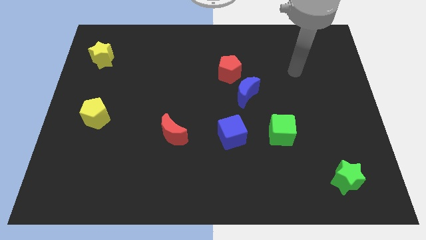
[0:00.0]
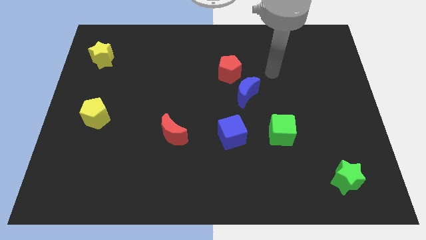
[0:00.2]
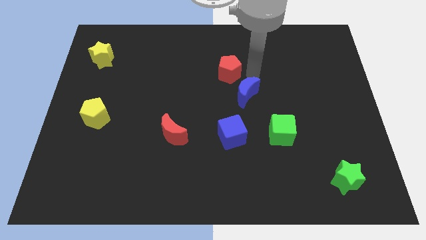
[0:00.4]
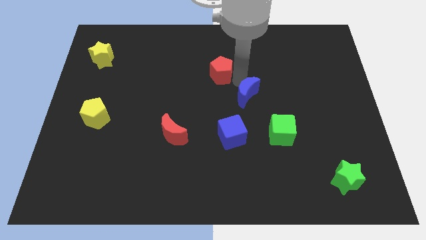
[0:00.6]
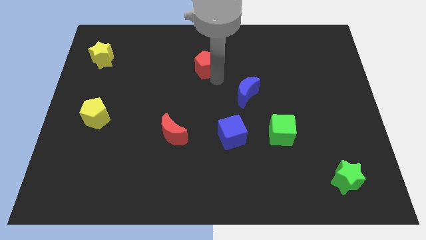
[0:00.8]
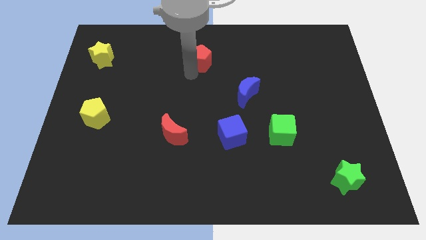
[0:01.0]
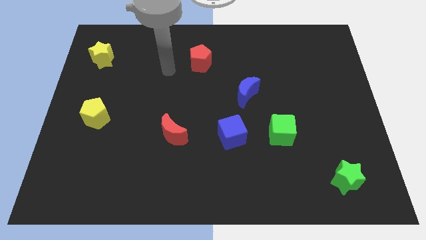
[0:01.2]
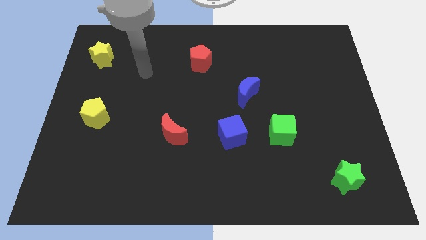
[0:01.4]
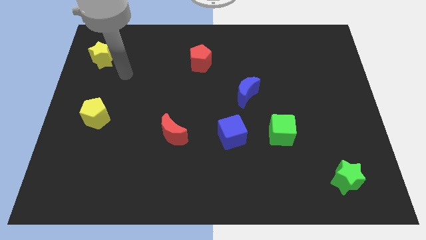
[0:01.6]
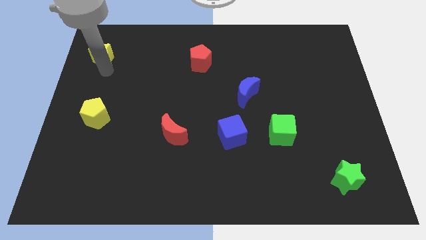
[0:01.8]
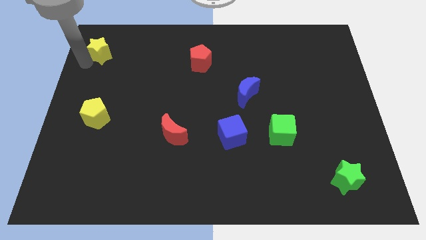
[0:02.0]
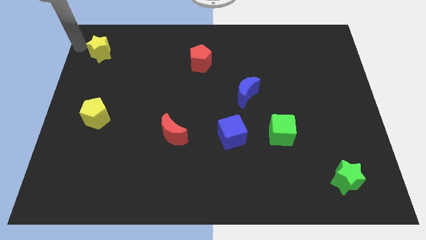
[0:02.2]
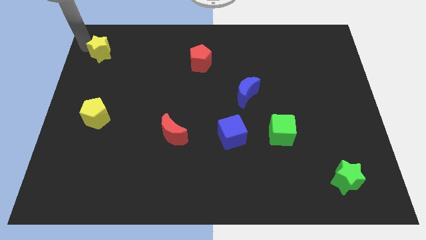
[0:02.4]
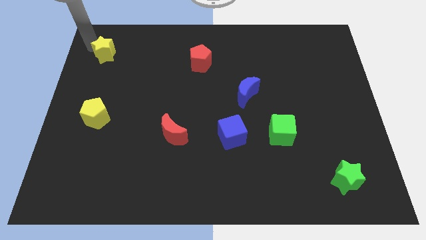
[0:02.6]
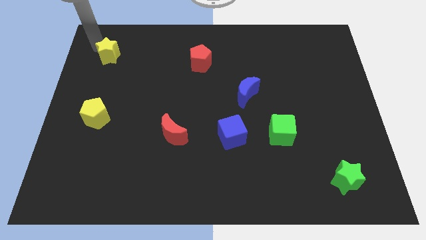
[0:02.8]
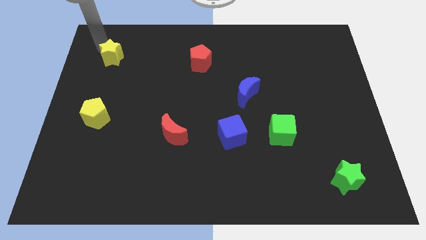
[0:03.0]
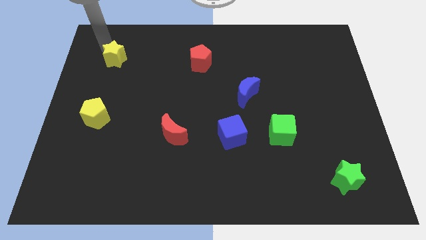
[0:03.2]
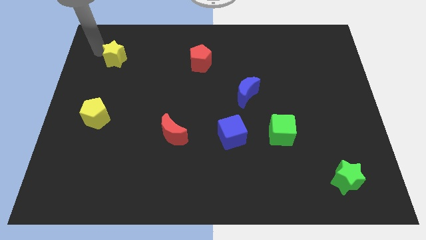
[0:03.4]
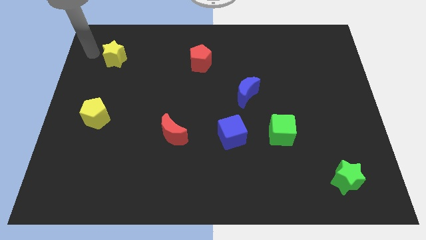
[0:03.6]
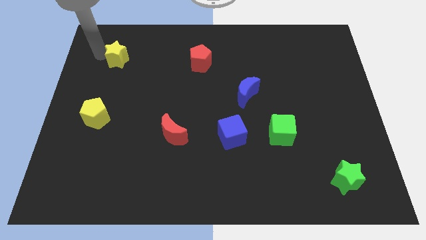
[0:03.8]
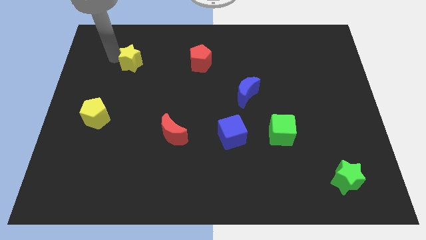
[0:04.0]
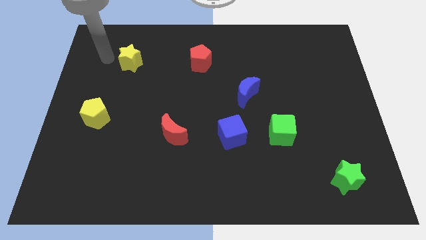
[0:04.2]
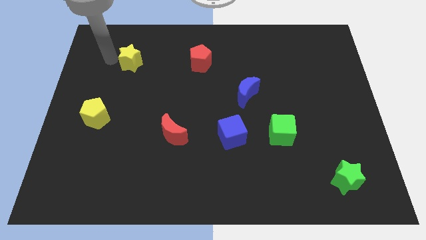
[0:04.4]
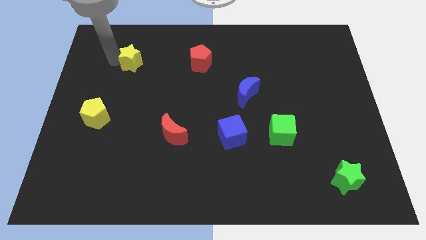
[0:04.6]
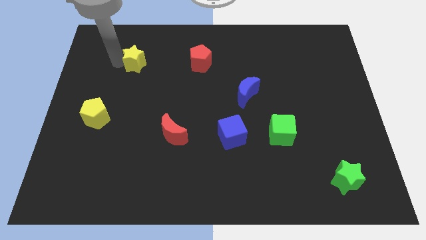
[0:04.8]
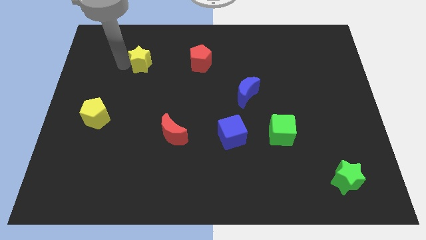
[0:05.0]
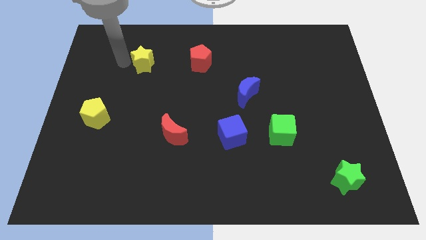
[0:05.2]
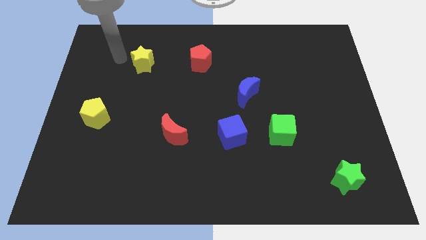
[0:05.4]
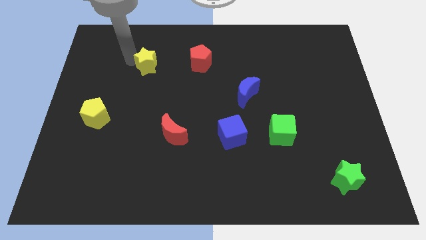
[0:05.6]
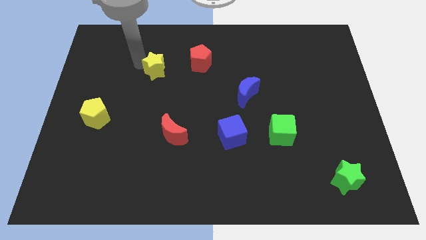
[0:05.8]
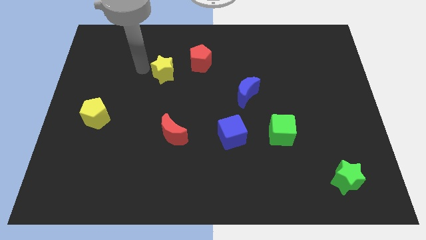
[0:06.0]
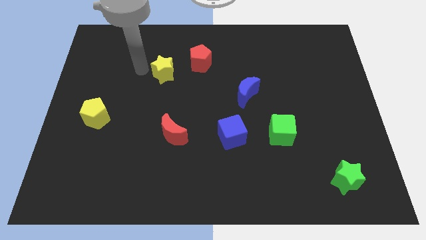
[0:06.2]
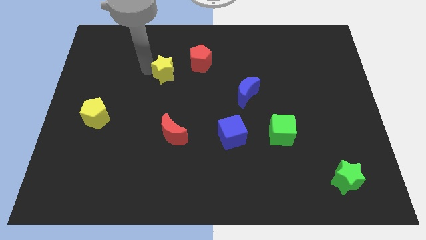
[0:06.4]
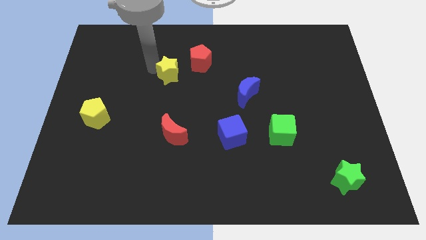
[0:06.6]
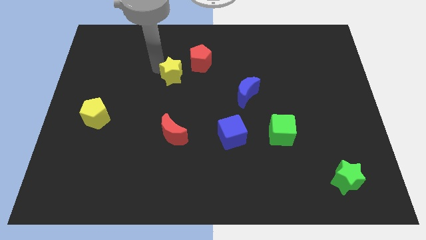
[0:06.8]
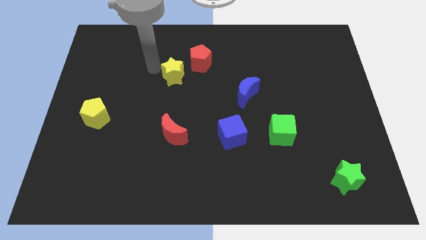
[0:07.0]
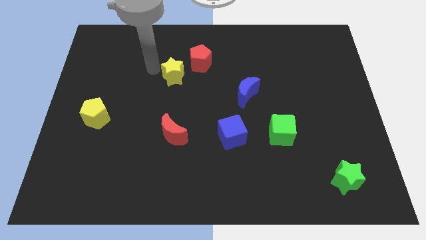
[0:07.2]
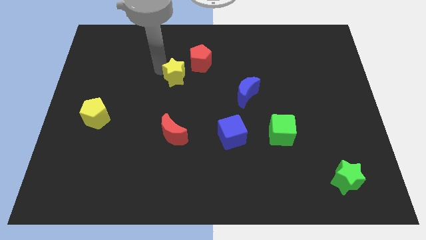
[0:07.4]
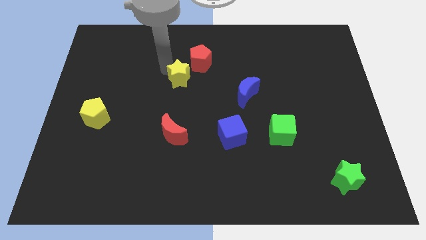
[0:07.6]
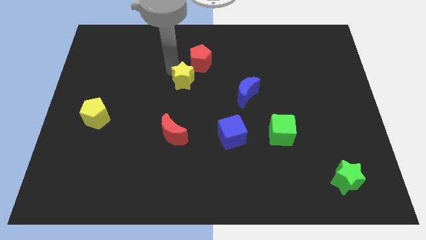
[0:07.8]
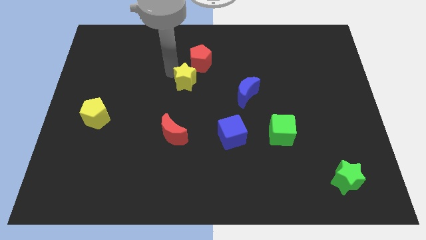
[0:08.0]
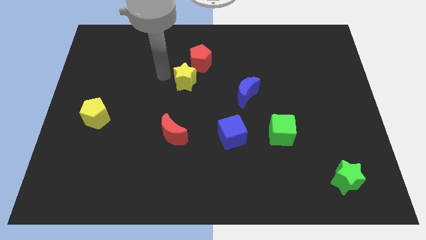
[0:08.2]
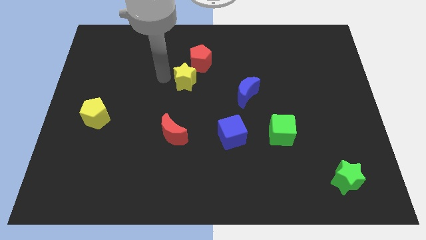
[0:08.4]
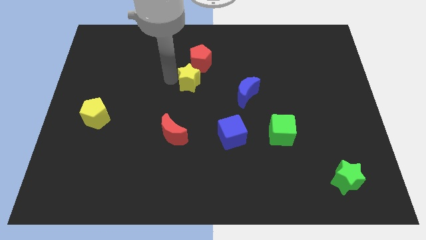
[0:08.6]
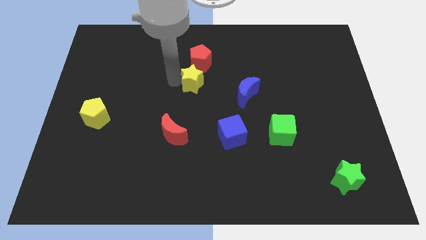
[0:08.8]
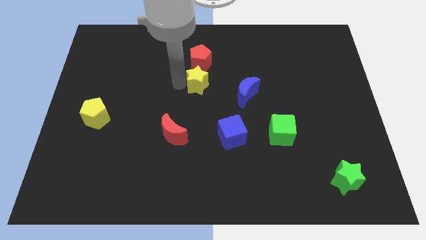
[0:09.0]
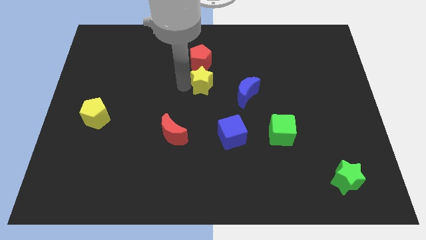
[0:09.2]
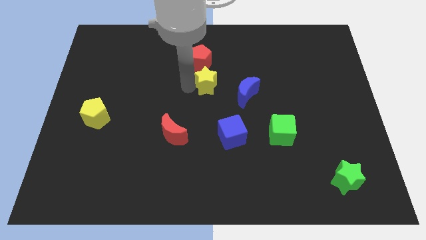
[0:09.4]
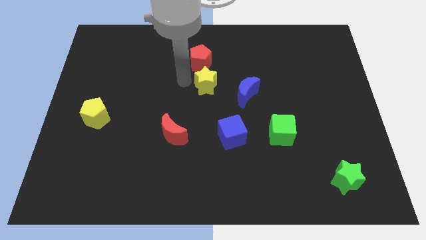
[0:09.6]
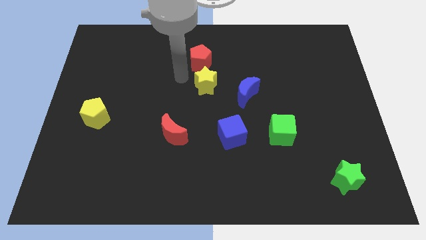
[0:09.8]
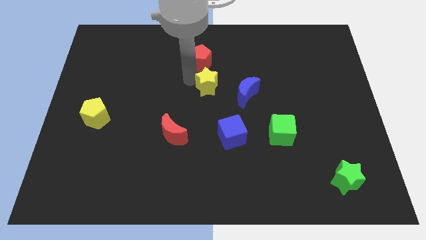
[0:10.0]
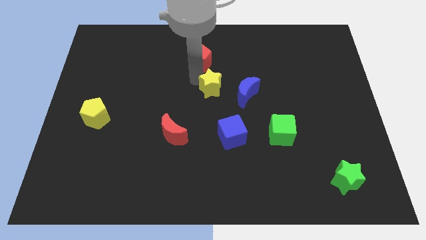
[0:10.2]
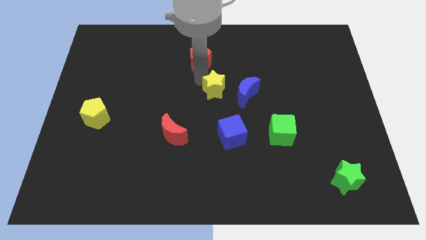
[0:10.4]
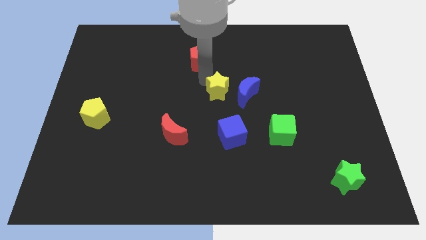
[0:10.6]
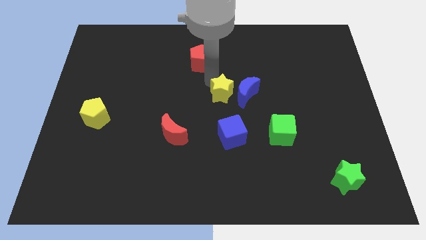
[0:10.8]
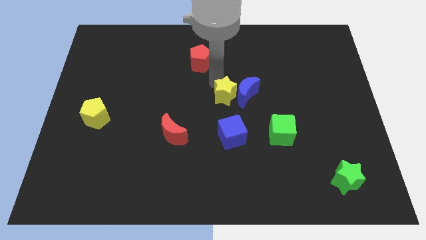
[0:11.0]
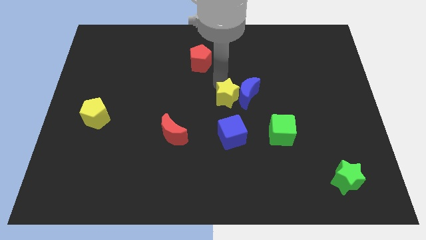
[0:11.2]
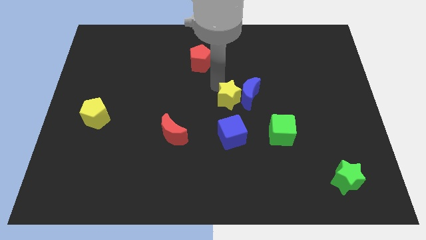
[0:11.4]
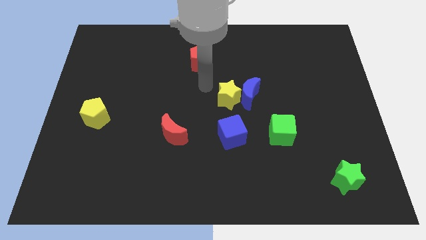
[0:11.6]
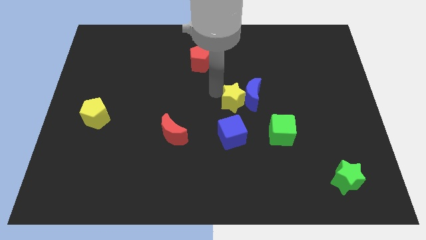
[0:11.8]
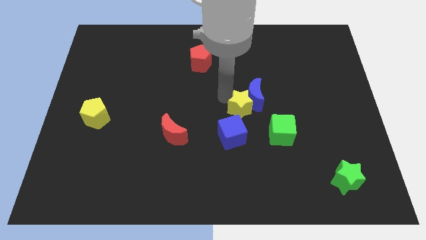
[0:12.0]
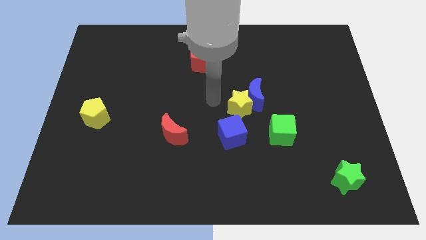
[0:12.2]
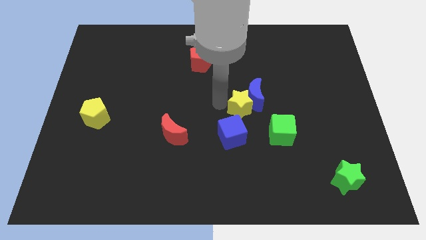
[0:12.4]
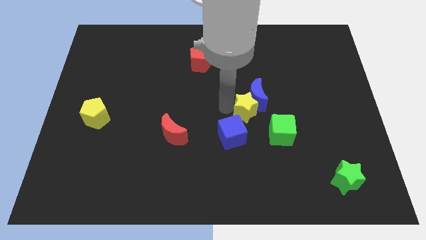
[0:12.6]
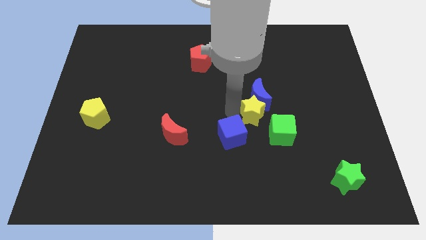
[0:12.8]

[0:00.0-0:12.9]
move the yellow star to the bottom right side of the blue moon
